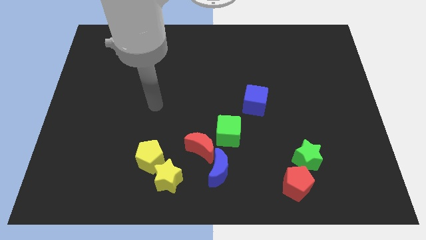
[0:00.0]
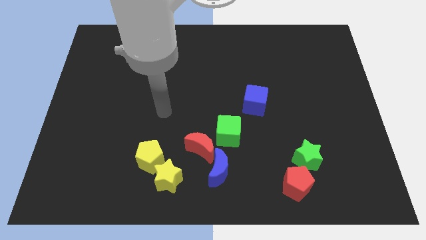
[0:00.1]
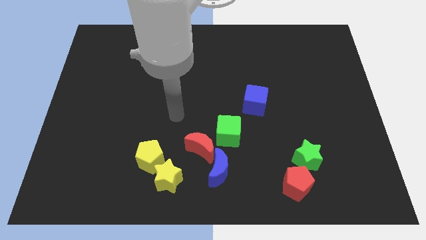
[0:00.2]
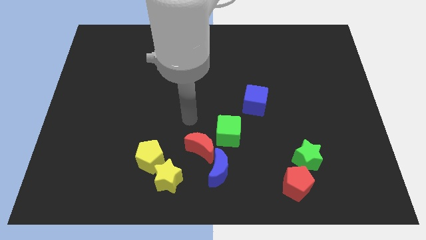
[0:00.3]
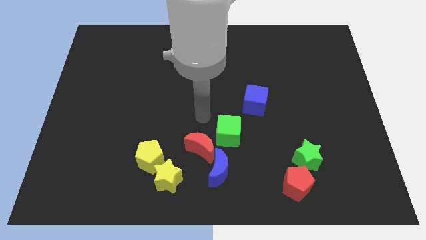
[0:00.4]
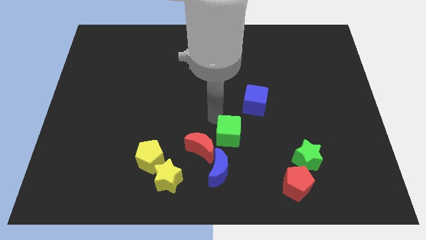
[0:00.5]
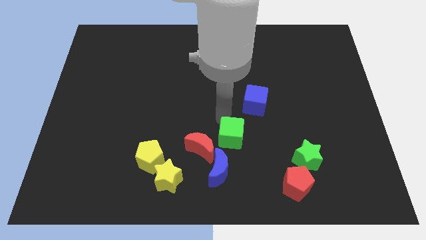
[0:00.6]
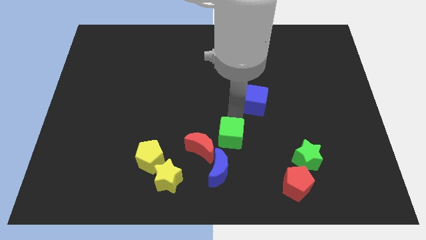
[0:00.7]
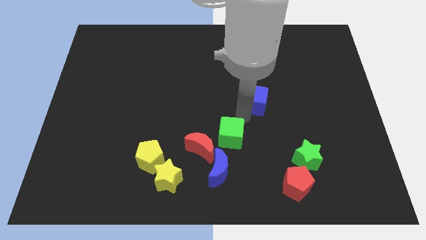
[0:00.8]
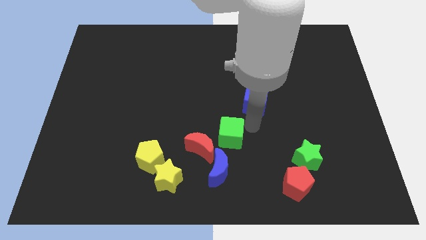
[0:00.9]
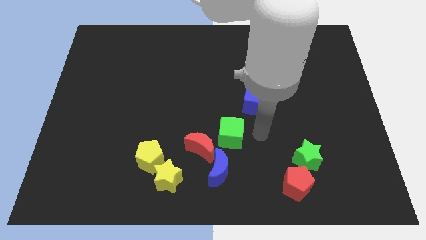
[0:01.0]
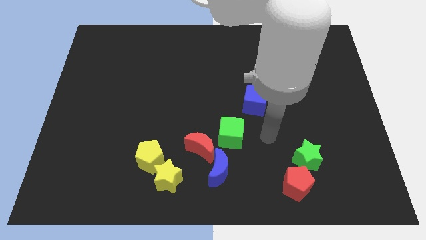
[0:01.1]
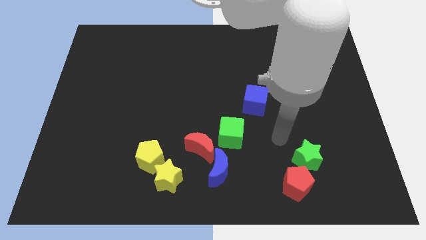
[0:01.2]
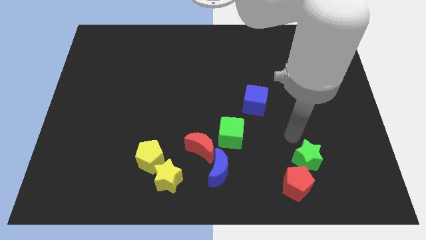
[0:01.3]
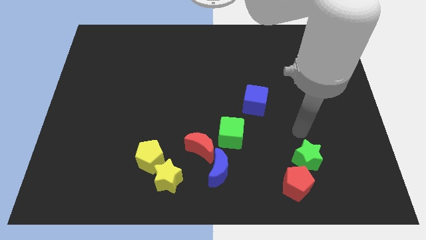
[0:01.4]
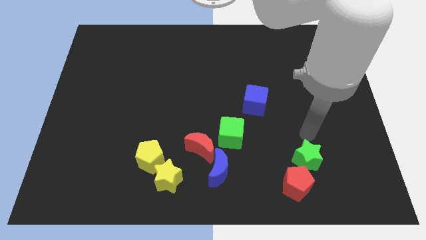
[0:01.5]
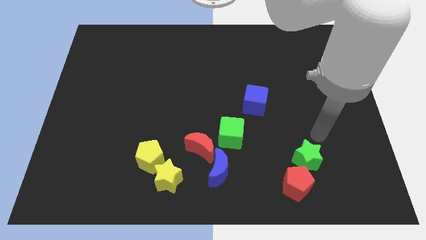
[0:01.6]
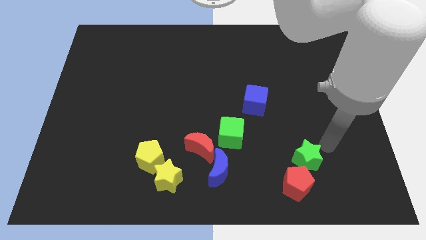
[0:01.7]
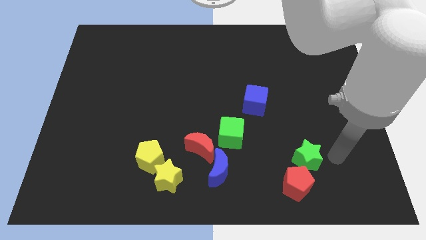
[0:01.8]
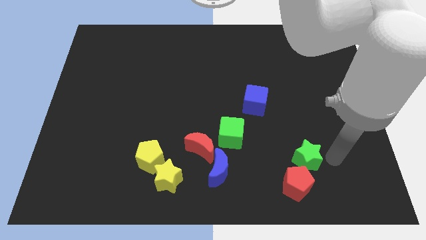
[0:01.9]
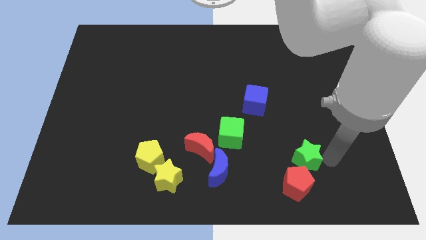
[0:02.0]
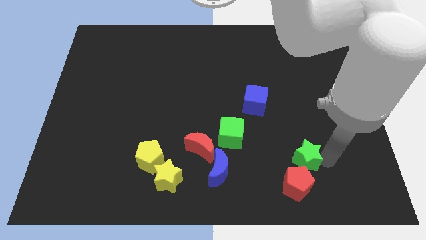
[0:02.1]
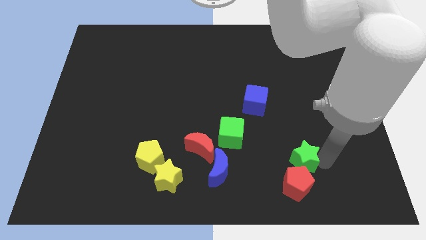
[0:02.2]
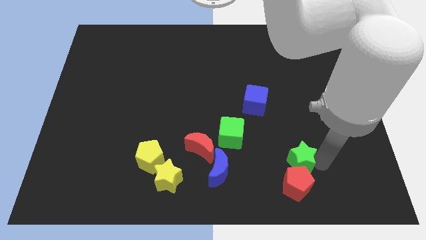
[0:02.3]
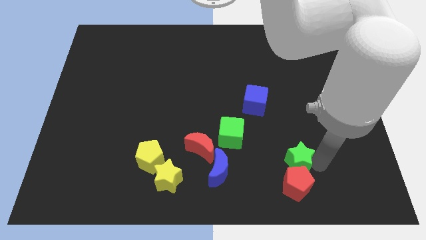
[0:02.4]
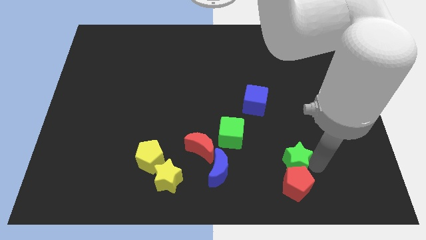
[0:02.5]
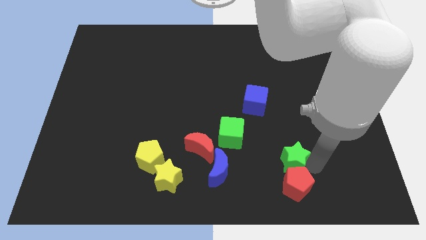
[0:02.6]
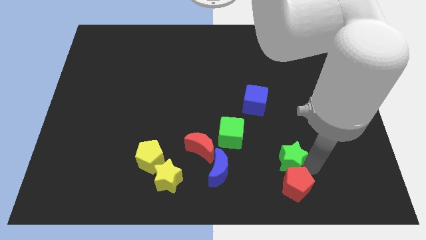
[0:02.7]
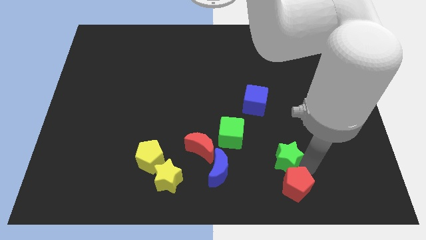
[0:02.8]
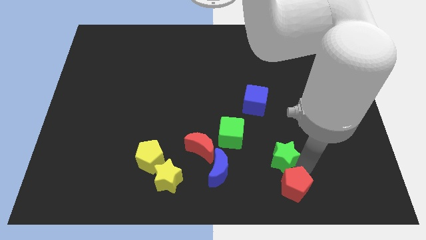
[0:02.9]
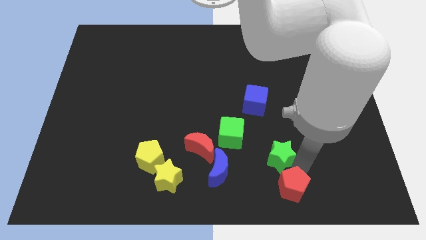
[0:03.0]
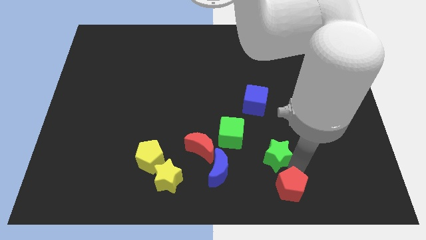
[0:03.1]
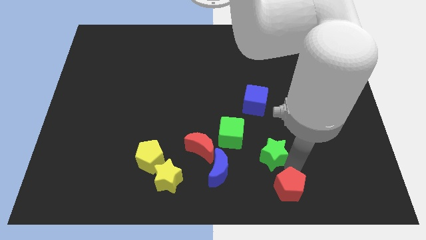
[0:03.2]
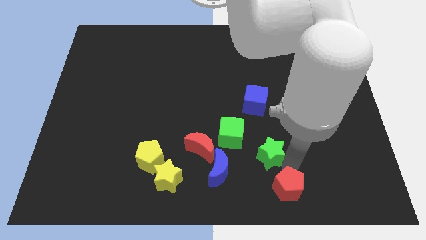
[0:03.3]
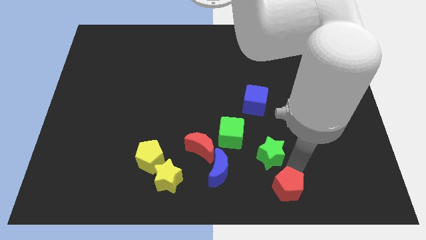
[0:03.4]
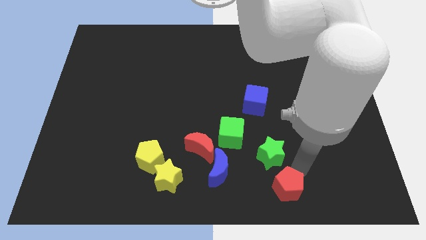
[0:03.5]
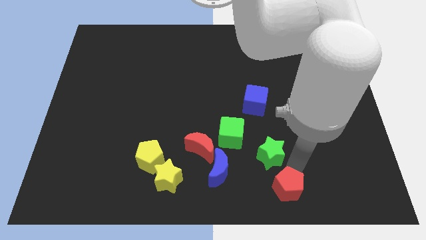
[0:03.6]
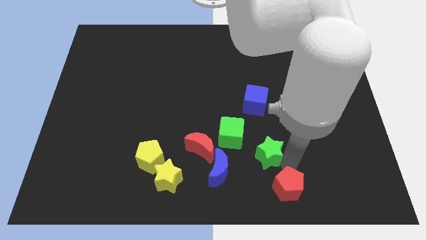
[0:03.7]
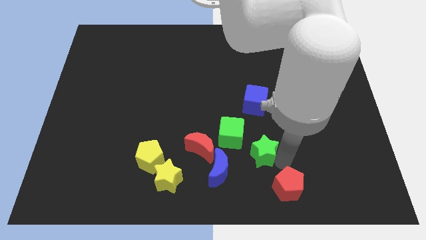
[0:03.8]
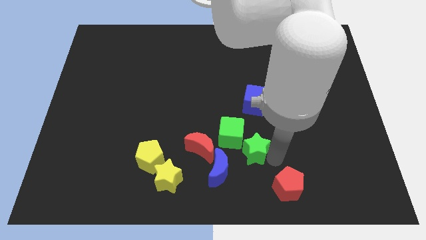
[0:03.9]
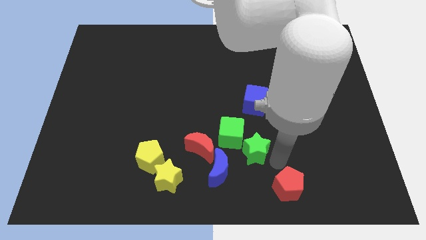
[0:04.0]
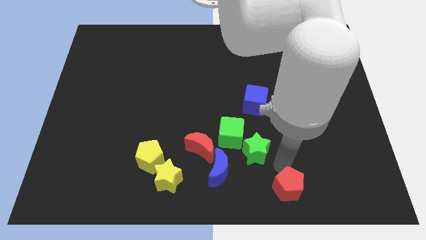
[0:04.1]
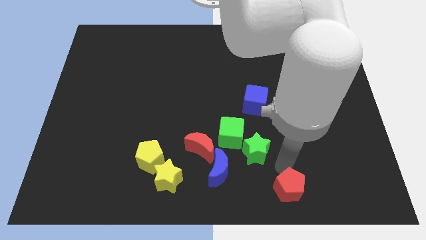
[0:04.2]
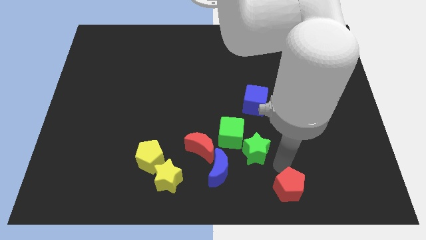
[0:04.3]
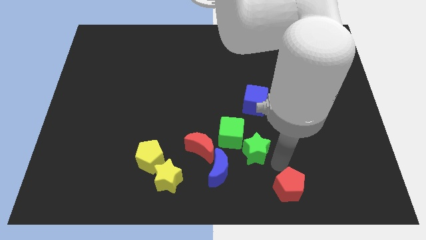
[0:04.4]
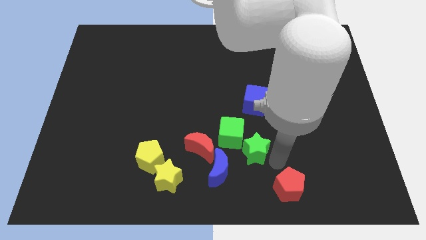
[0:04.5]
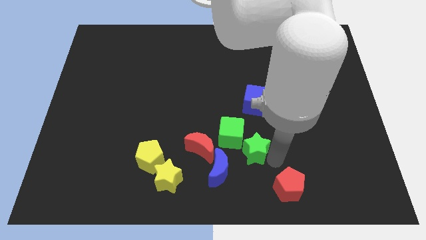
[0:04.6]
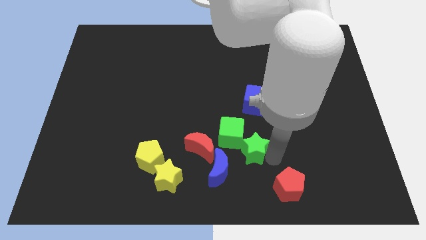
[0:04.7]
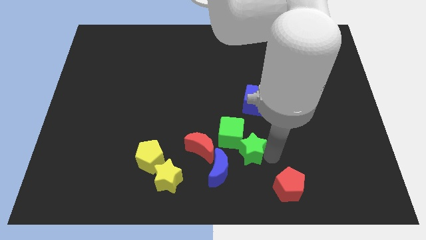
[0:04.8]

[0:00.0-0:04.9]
move the green star next to the green cube

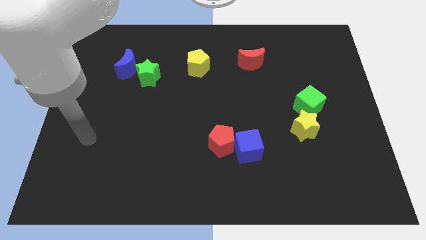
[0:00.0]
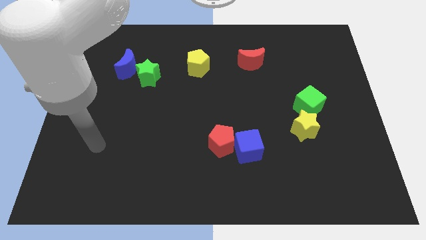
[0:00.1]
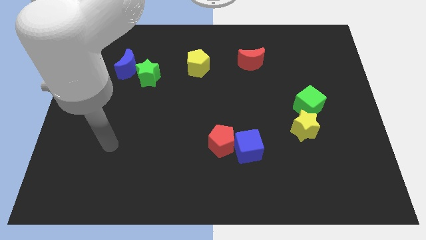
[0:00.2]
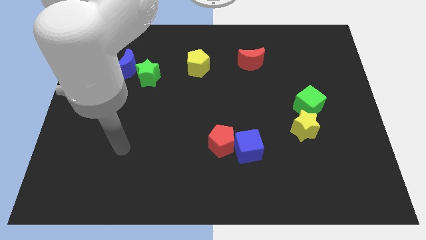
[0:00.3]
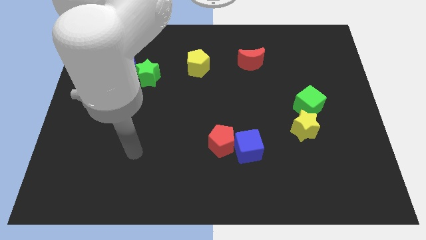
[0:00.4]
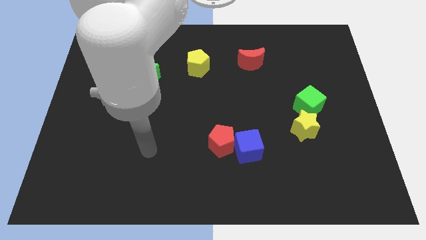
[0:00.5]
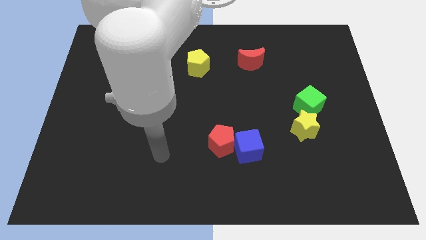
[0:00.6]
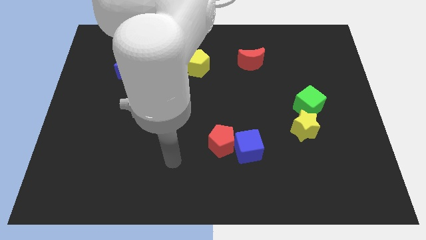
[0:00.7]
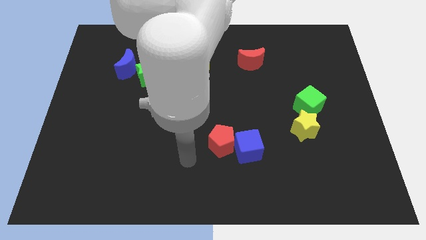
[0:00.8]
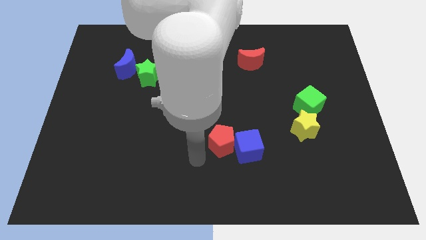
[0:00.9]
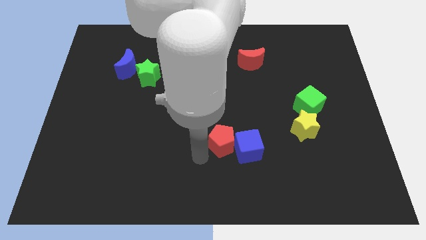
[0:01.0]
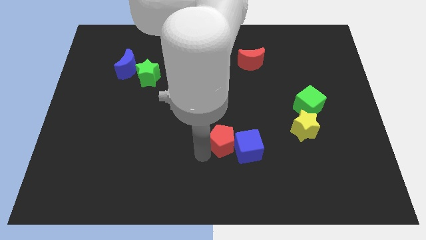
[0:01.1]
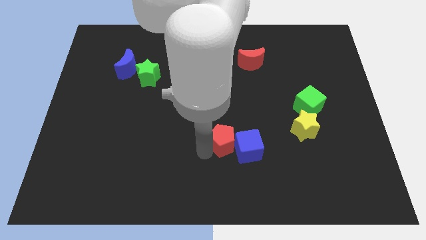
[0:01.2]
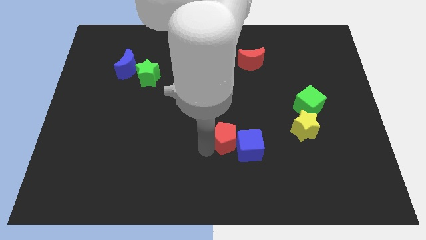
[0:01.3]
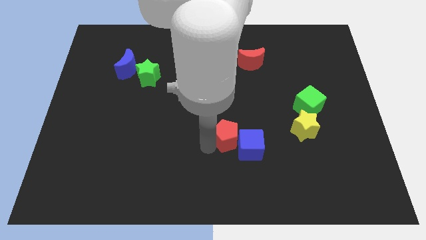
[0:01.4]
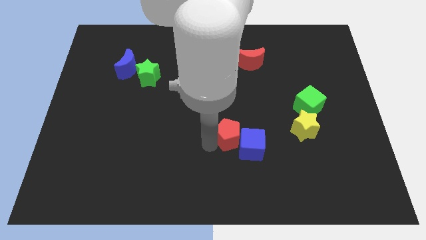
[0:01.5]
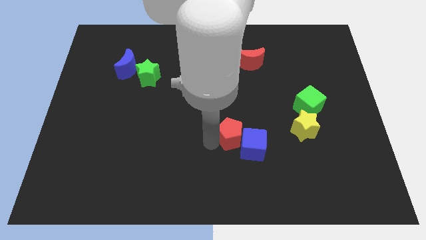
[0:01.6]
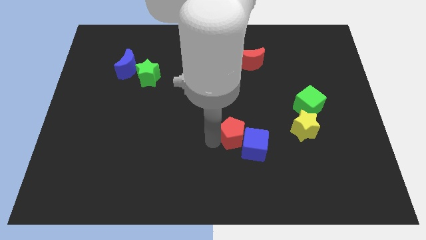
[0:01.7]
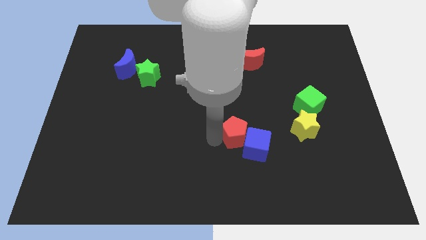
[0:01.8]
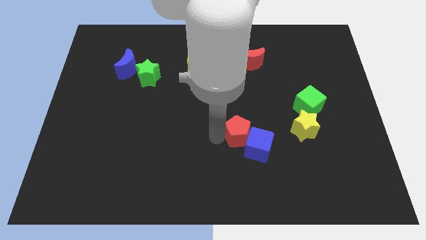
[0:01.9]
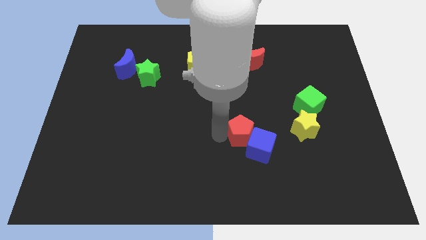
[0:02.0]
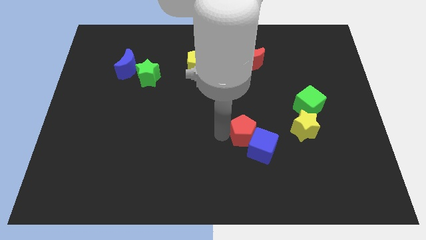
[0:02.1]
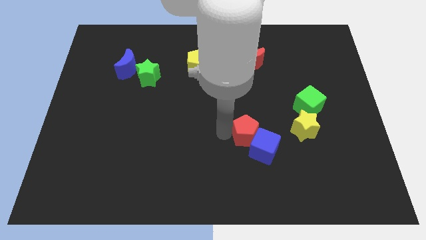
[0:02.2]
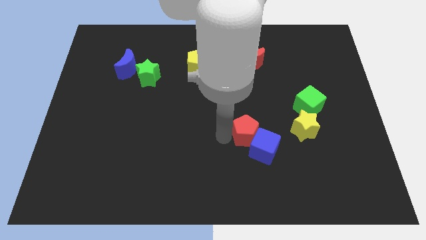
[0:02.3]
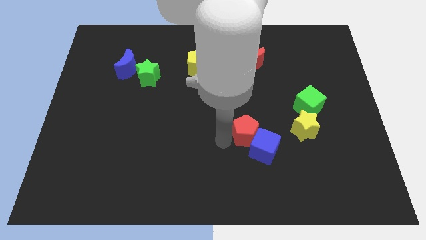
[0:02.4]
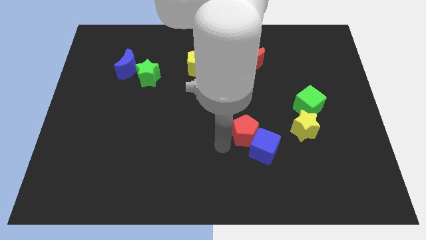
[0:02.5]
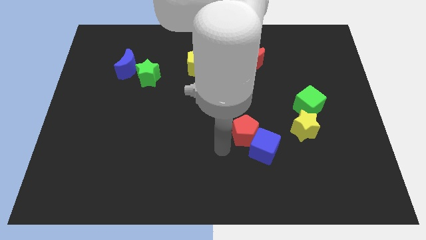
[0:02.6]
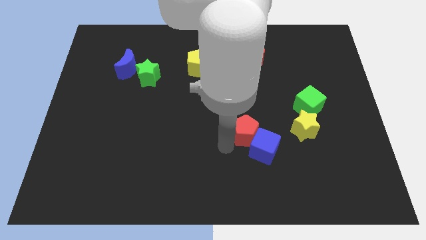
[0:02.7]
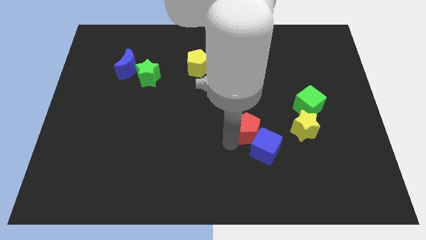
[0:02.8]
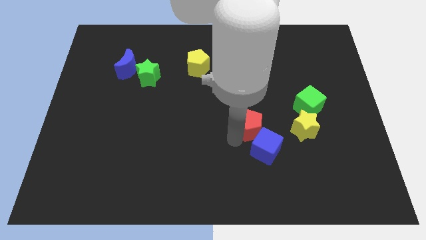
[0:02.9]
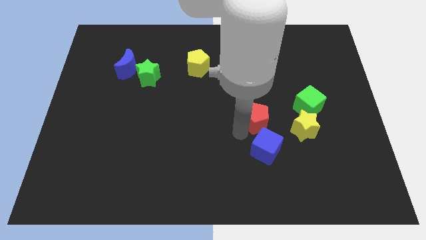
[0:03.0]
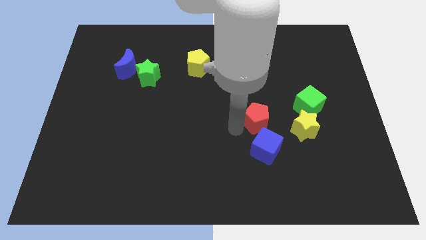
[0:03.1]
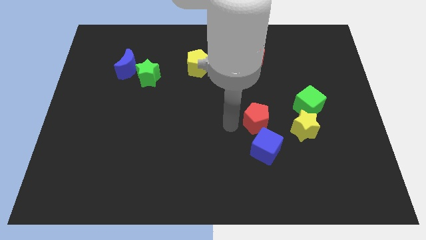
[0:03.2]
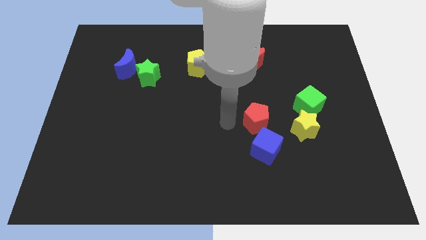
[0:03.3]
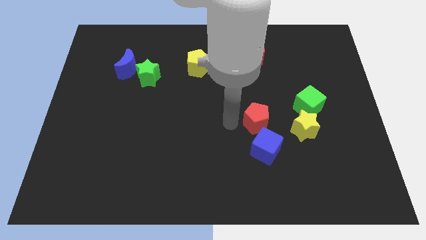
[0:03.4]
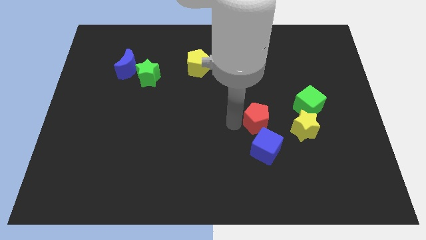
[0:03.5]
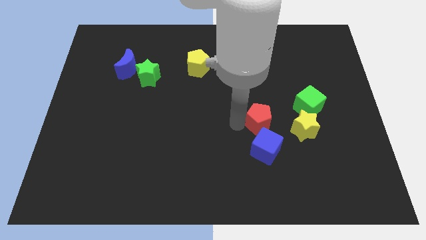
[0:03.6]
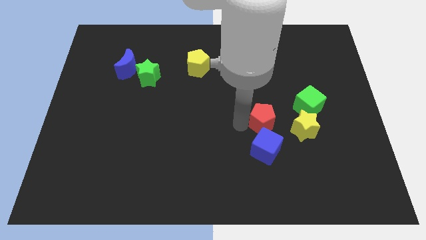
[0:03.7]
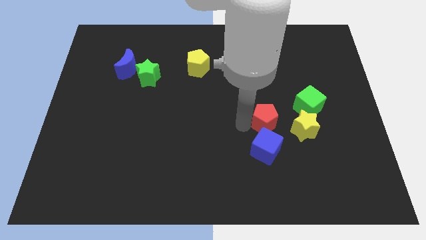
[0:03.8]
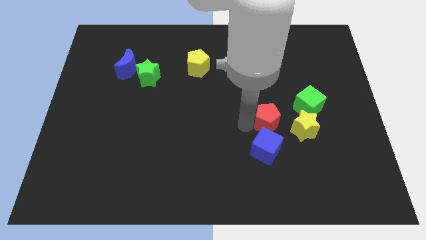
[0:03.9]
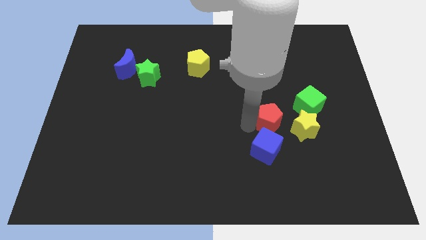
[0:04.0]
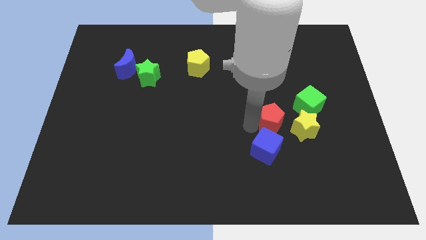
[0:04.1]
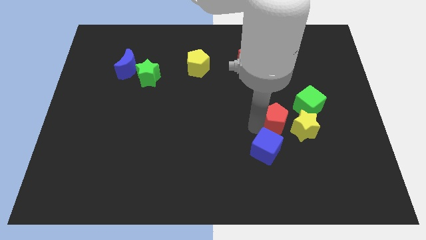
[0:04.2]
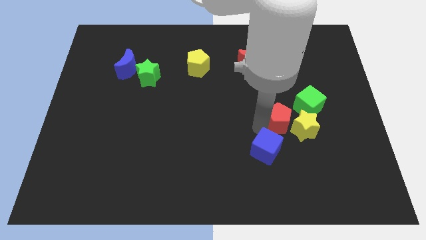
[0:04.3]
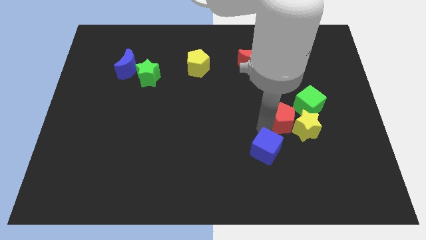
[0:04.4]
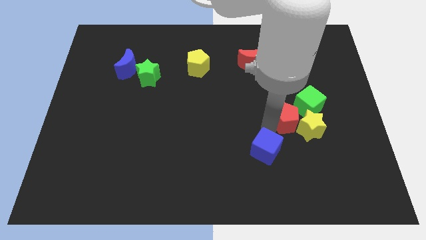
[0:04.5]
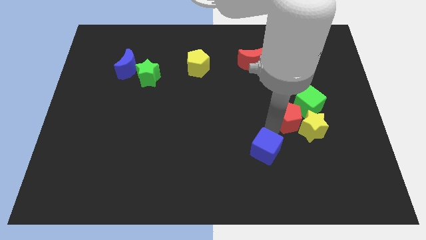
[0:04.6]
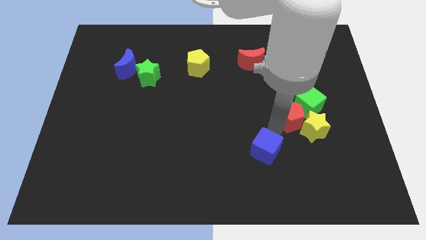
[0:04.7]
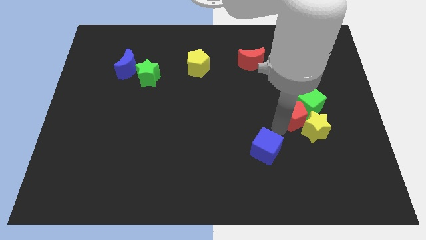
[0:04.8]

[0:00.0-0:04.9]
slide the red pentagon to the green cube
